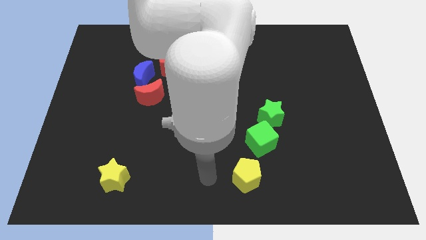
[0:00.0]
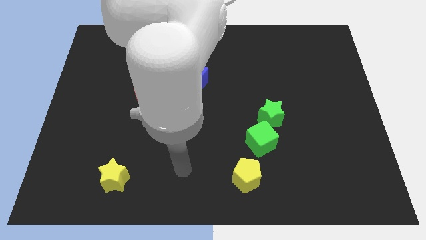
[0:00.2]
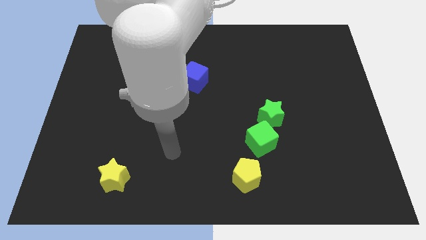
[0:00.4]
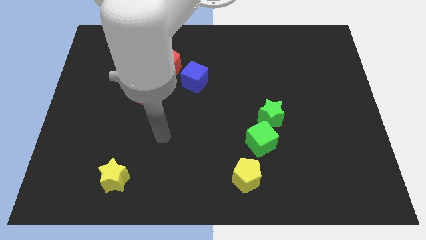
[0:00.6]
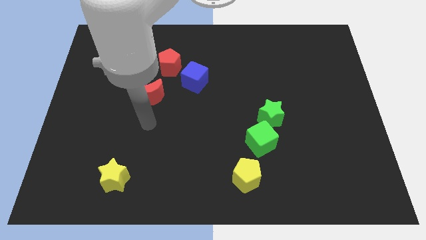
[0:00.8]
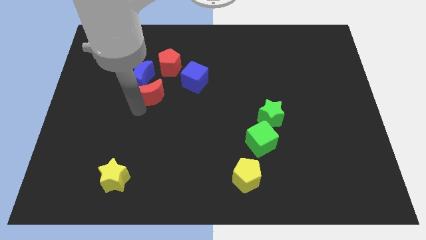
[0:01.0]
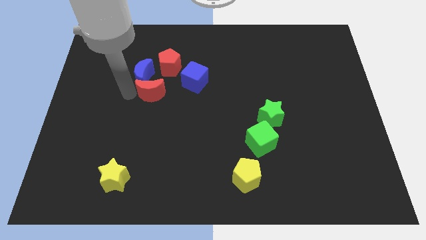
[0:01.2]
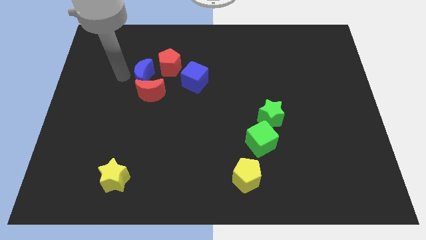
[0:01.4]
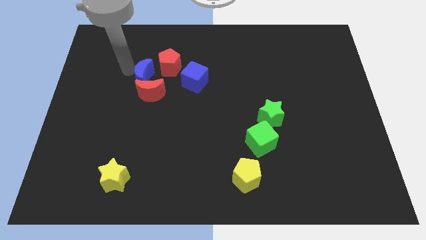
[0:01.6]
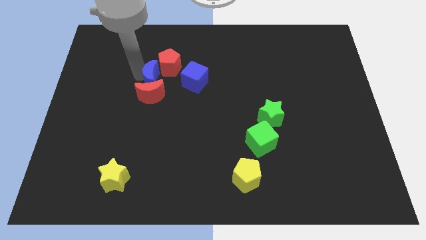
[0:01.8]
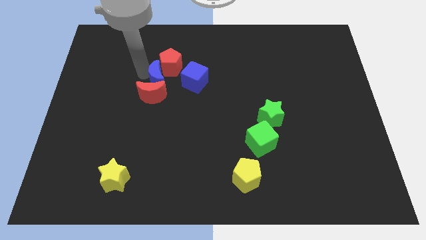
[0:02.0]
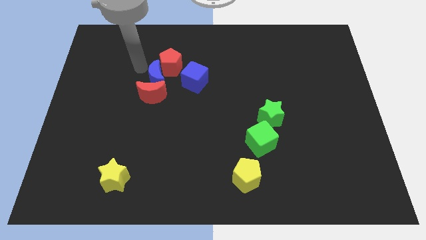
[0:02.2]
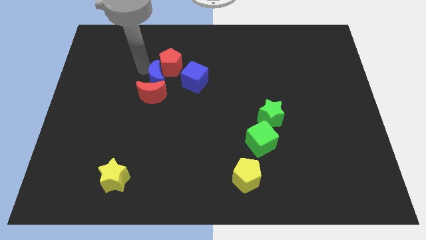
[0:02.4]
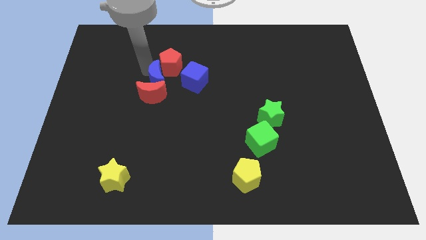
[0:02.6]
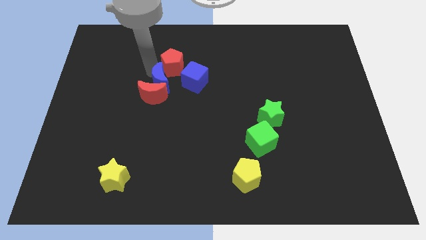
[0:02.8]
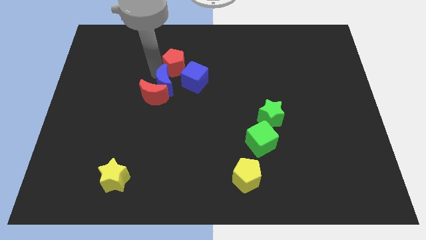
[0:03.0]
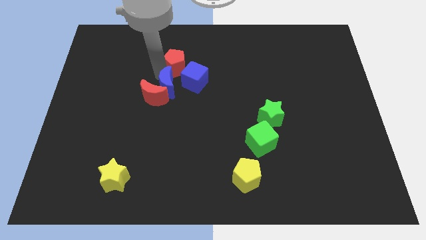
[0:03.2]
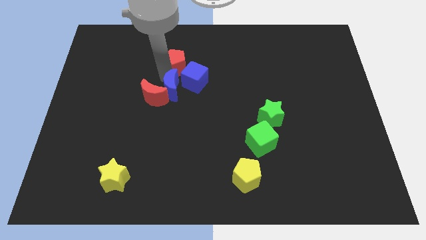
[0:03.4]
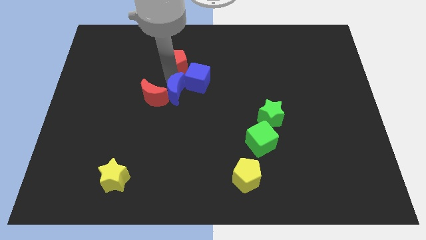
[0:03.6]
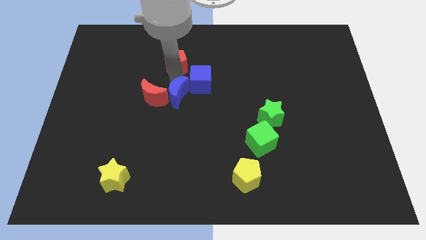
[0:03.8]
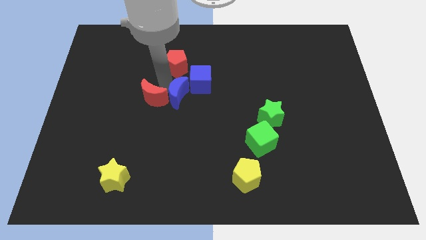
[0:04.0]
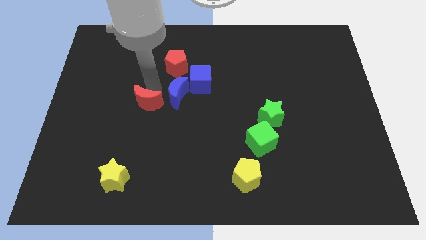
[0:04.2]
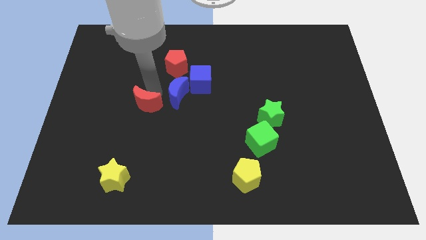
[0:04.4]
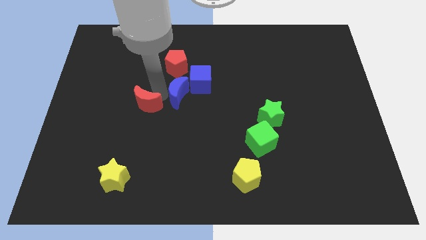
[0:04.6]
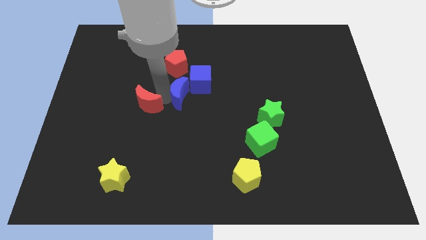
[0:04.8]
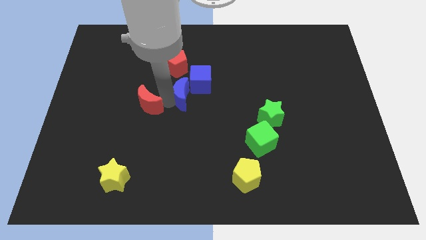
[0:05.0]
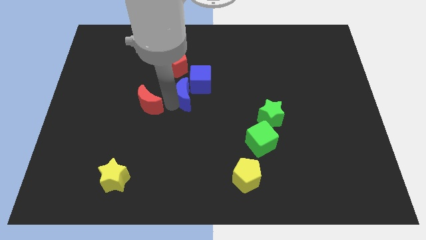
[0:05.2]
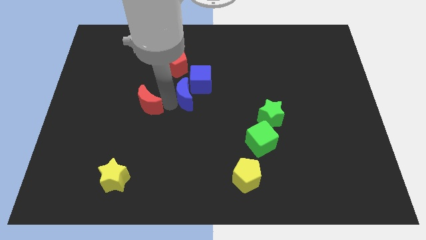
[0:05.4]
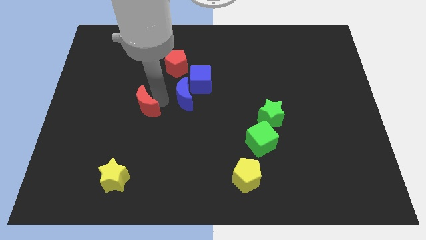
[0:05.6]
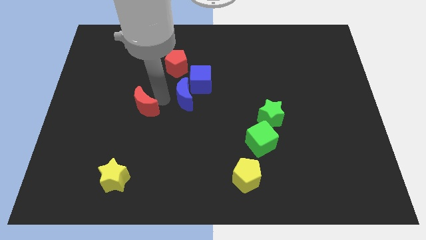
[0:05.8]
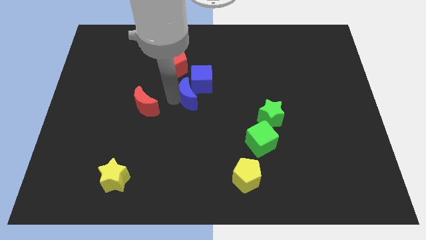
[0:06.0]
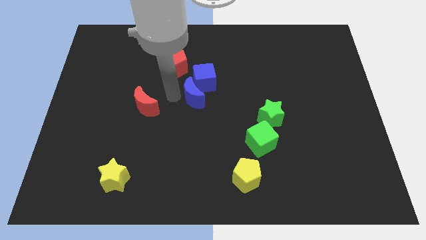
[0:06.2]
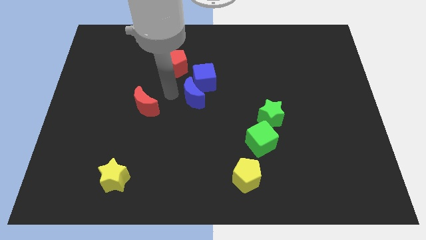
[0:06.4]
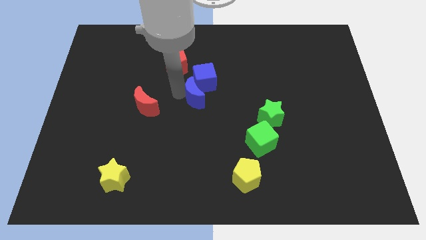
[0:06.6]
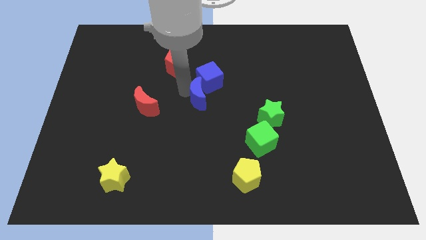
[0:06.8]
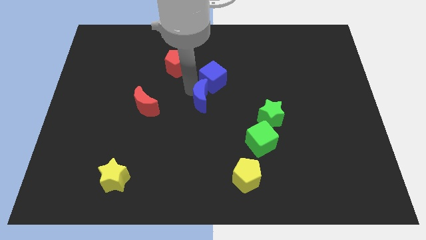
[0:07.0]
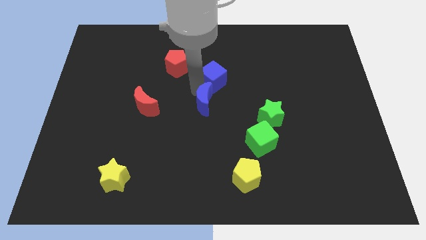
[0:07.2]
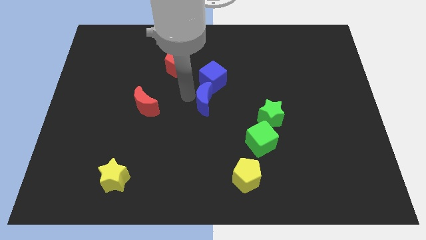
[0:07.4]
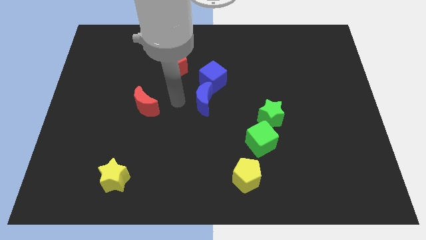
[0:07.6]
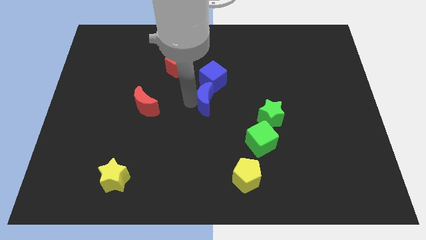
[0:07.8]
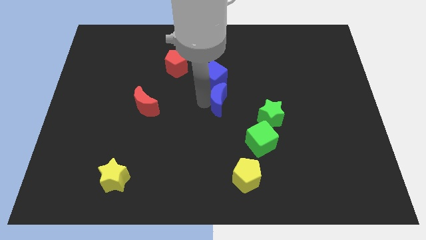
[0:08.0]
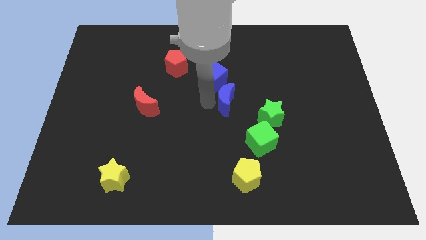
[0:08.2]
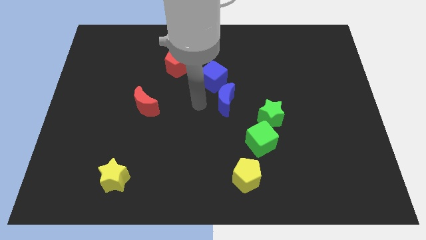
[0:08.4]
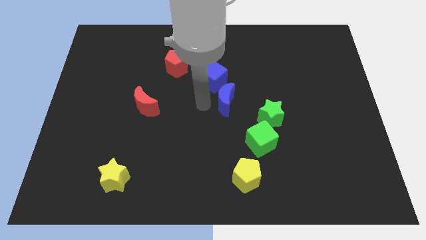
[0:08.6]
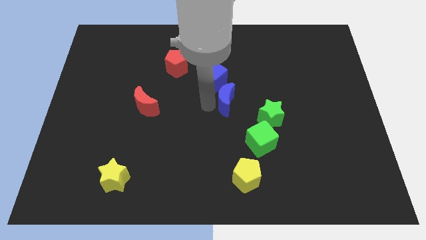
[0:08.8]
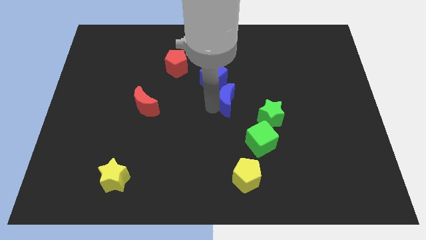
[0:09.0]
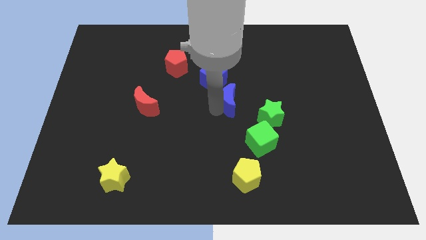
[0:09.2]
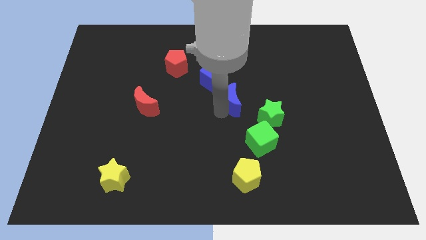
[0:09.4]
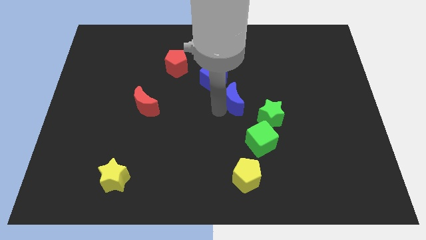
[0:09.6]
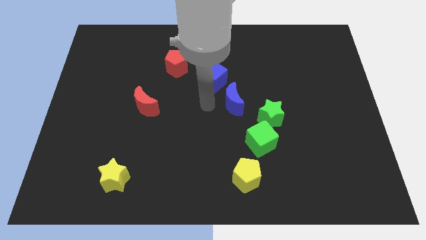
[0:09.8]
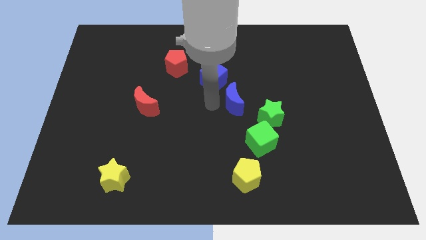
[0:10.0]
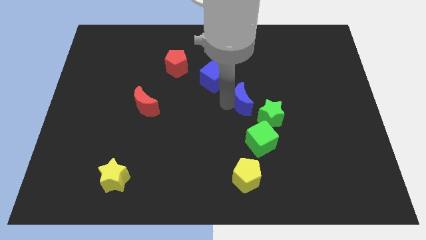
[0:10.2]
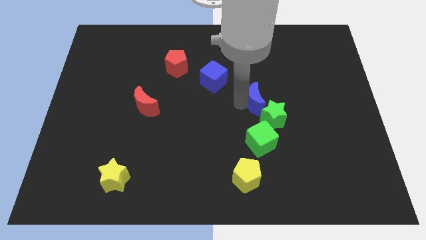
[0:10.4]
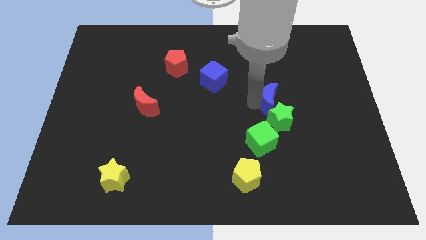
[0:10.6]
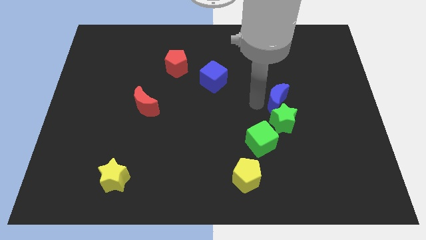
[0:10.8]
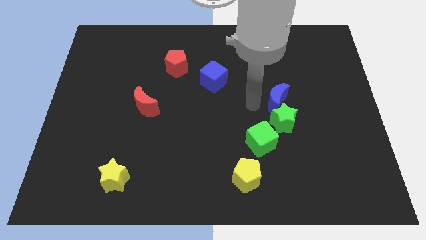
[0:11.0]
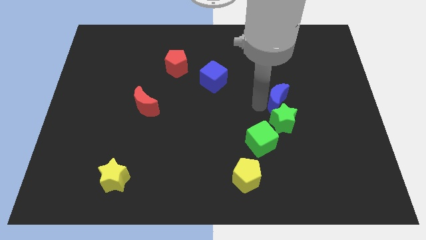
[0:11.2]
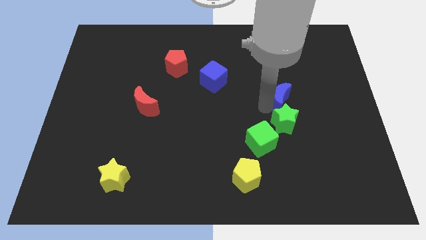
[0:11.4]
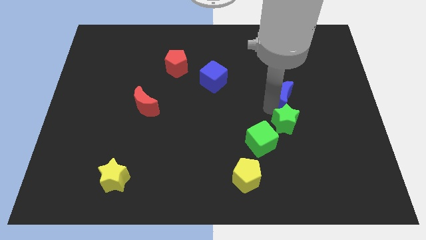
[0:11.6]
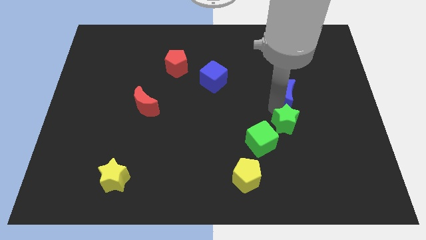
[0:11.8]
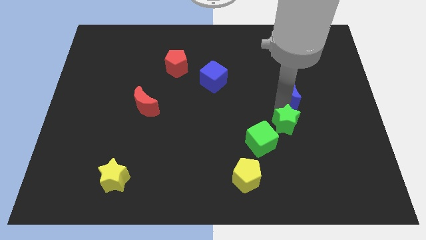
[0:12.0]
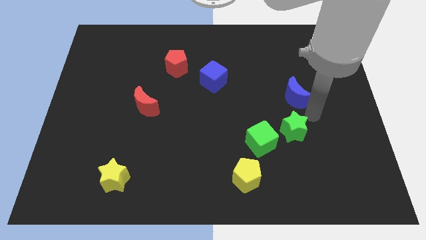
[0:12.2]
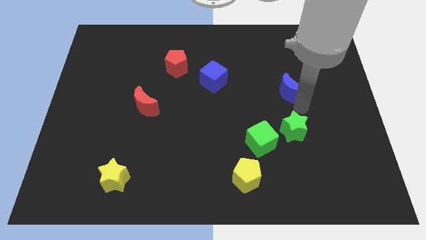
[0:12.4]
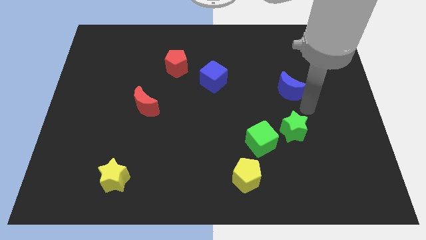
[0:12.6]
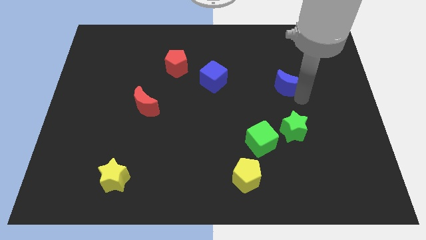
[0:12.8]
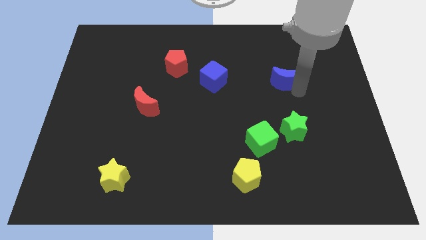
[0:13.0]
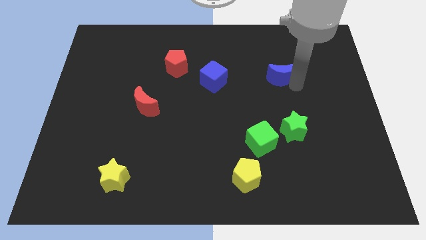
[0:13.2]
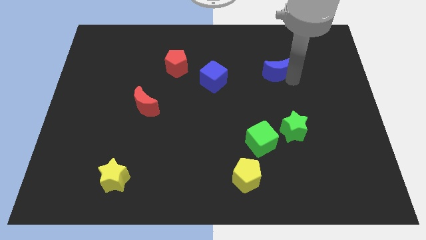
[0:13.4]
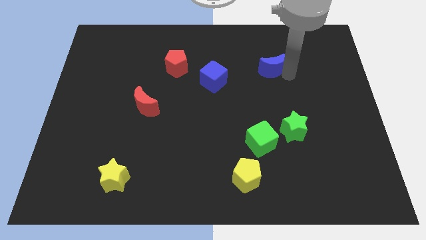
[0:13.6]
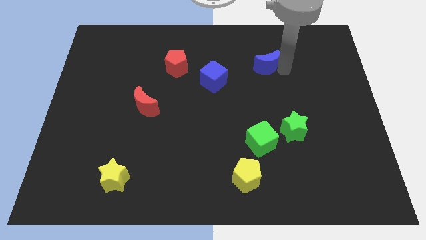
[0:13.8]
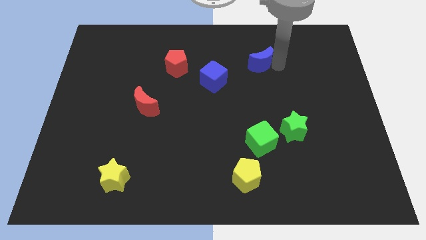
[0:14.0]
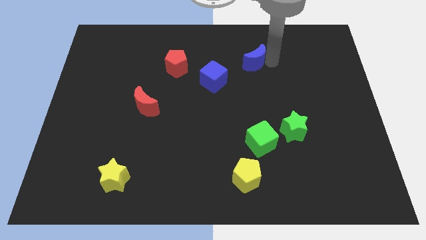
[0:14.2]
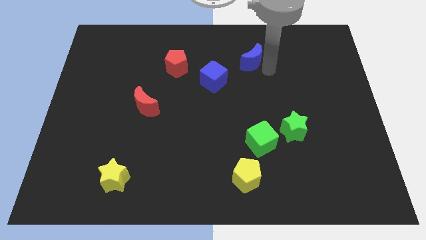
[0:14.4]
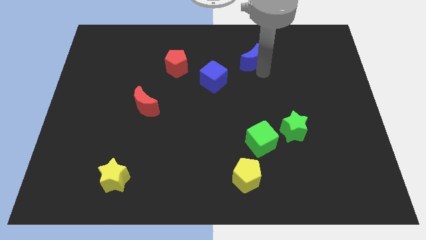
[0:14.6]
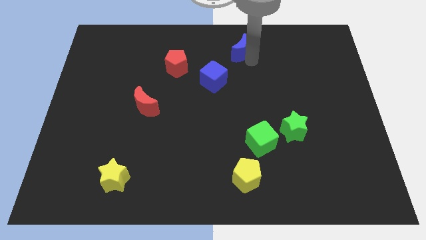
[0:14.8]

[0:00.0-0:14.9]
put the blue moon to the top
